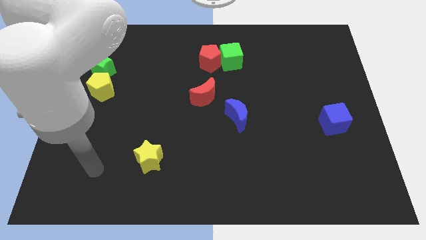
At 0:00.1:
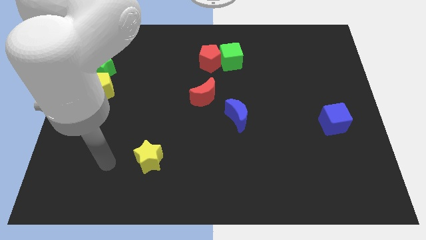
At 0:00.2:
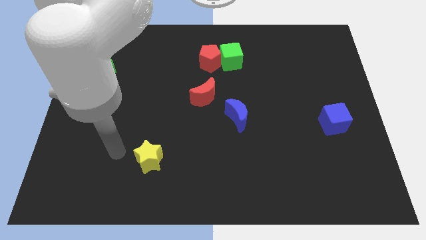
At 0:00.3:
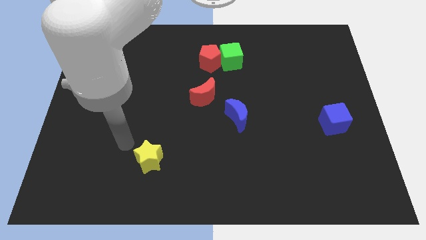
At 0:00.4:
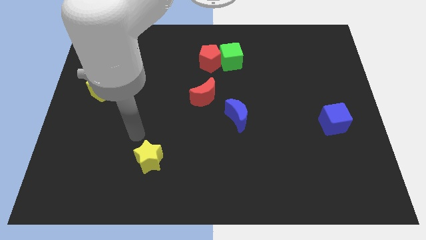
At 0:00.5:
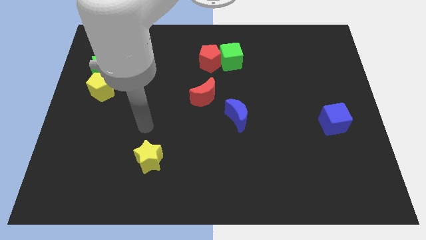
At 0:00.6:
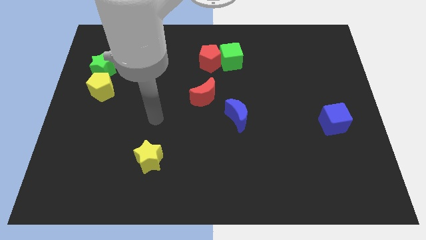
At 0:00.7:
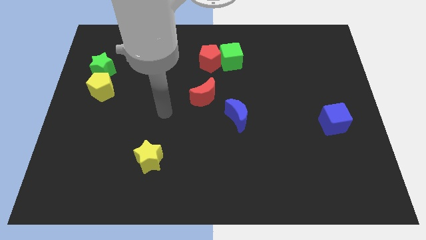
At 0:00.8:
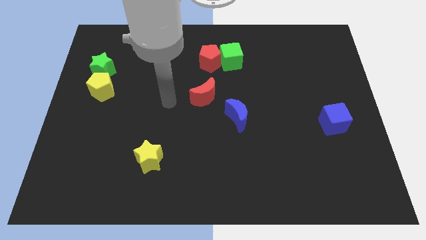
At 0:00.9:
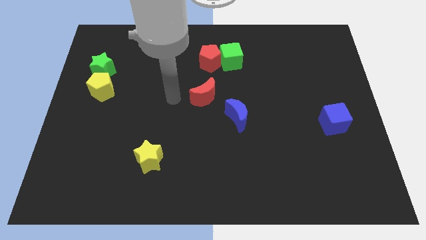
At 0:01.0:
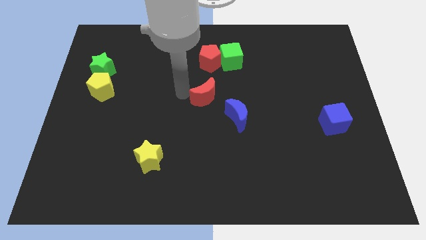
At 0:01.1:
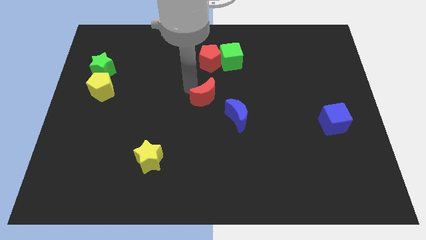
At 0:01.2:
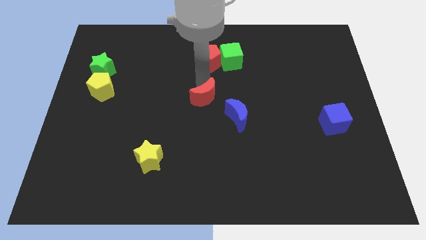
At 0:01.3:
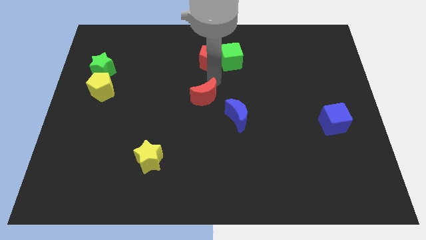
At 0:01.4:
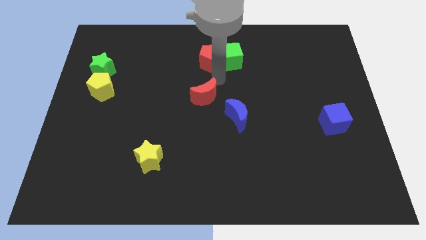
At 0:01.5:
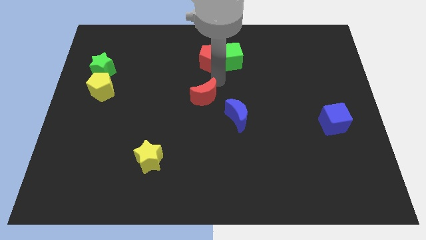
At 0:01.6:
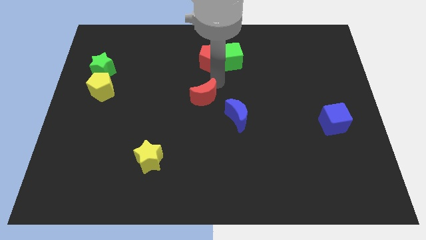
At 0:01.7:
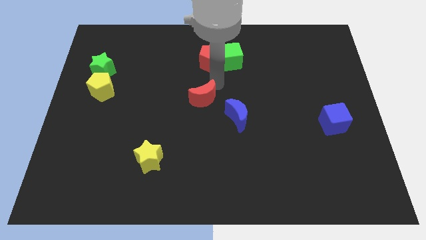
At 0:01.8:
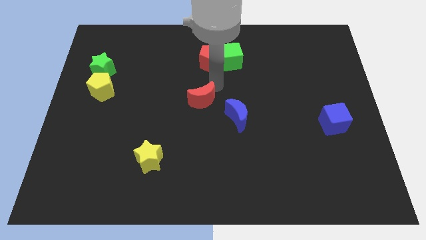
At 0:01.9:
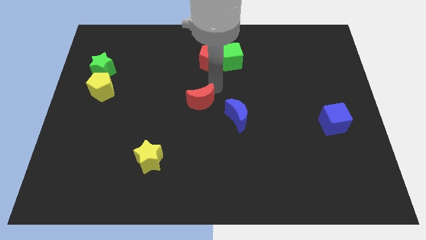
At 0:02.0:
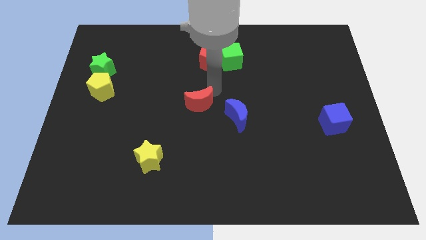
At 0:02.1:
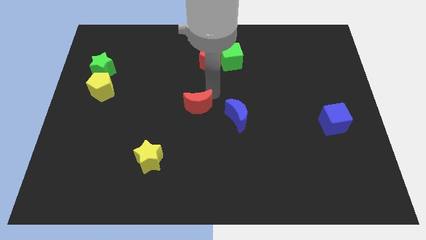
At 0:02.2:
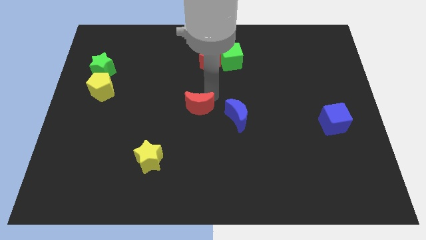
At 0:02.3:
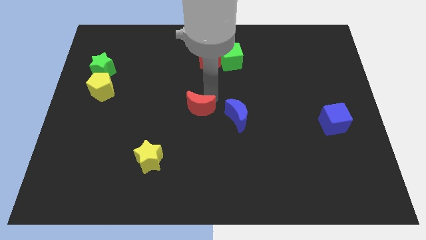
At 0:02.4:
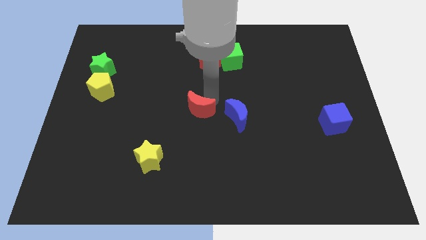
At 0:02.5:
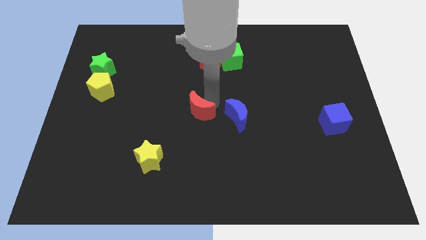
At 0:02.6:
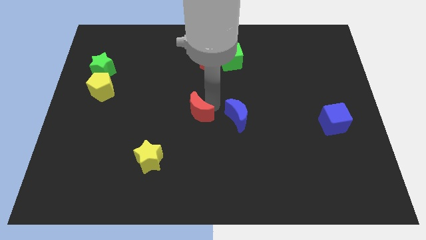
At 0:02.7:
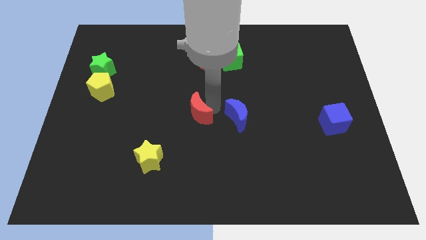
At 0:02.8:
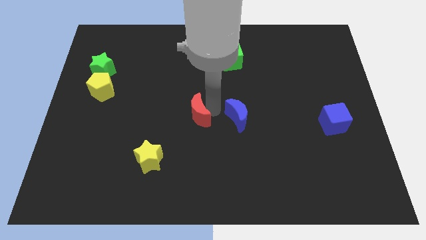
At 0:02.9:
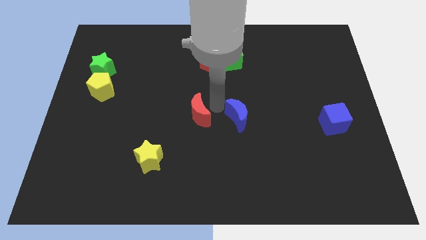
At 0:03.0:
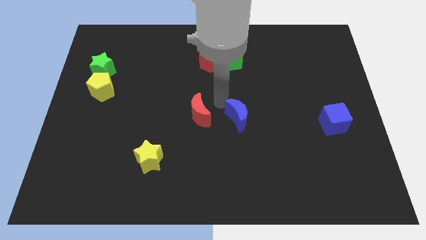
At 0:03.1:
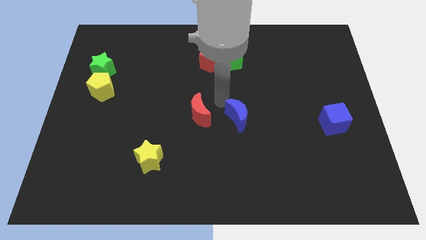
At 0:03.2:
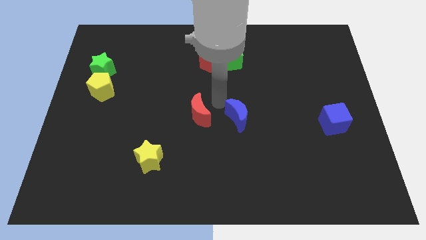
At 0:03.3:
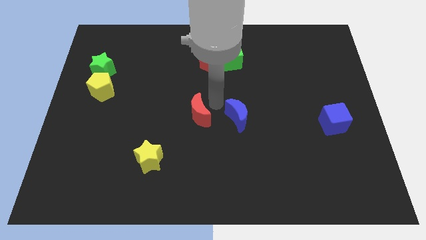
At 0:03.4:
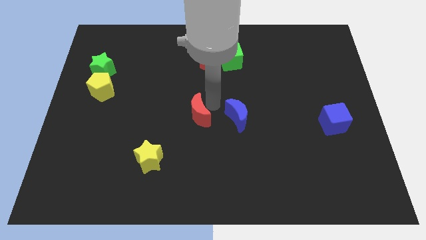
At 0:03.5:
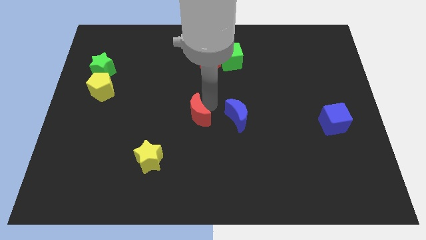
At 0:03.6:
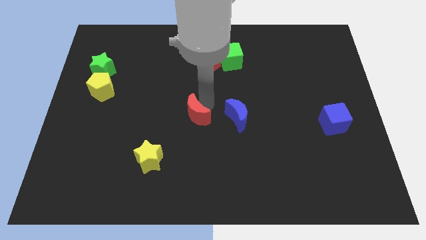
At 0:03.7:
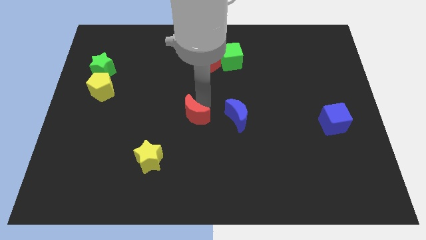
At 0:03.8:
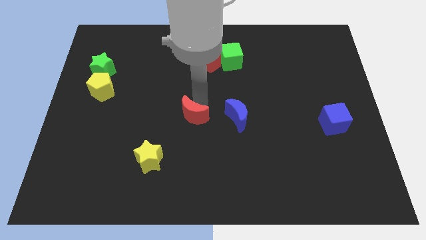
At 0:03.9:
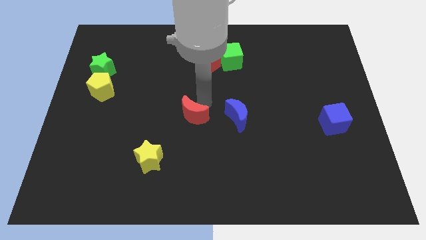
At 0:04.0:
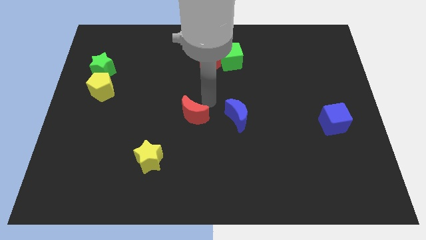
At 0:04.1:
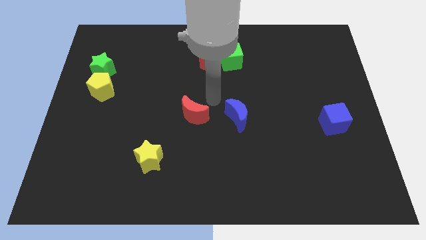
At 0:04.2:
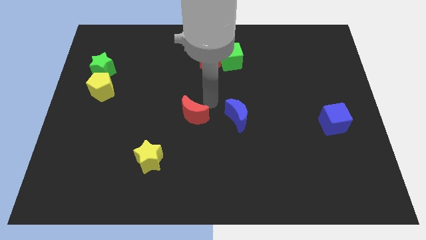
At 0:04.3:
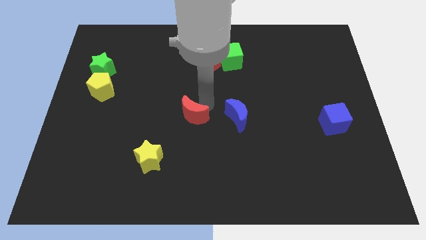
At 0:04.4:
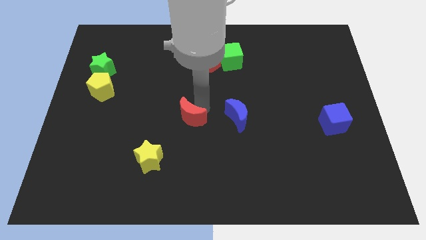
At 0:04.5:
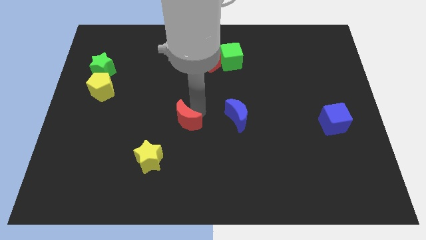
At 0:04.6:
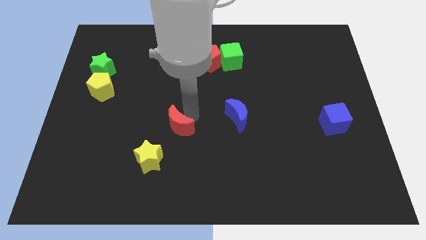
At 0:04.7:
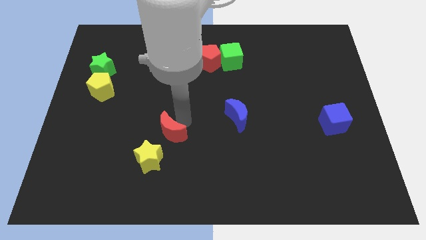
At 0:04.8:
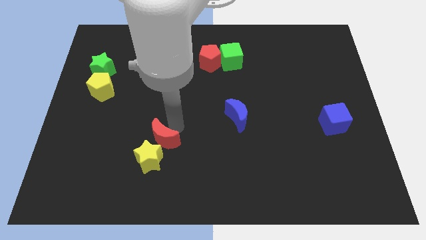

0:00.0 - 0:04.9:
slide the red moon to the yellow star

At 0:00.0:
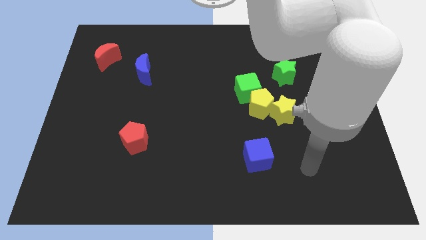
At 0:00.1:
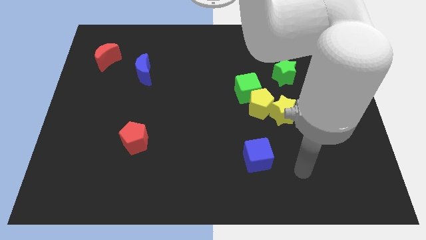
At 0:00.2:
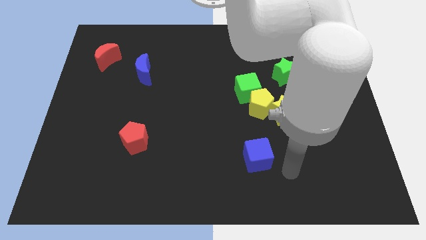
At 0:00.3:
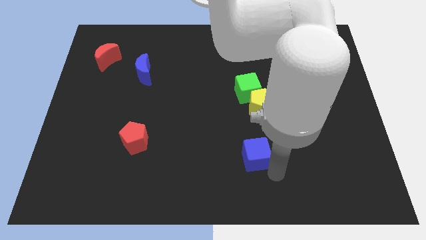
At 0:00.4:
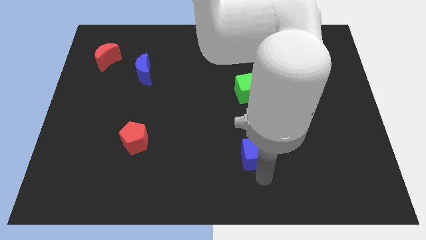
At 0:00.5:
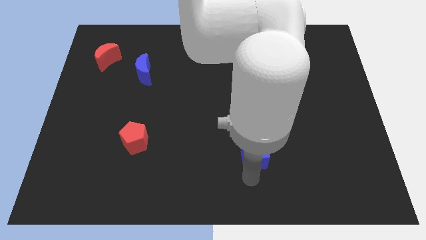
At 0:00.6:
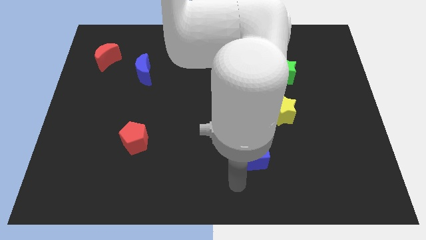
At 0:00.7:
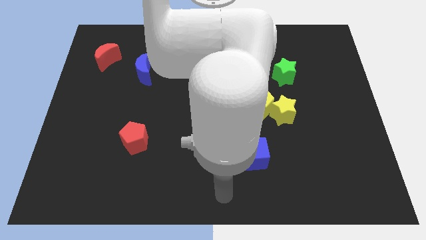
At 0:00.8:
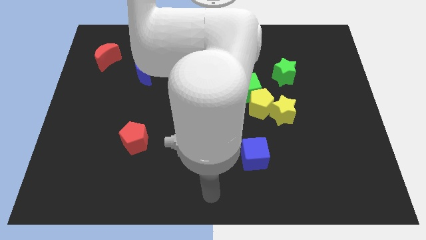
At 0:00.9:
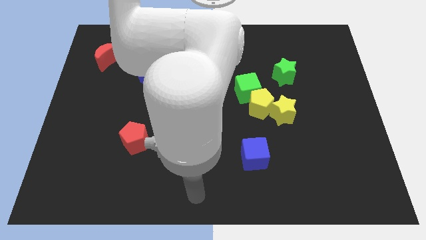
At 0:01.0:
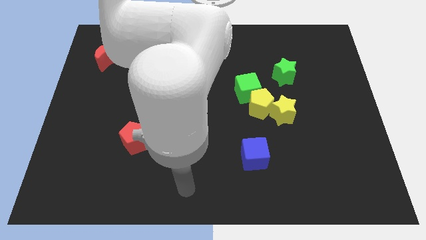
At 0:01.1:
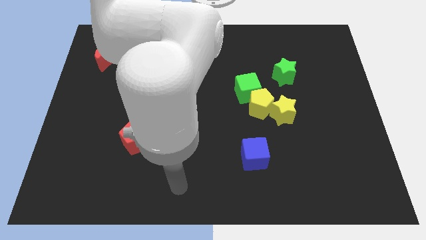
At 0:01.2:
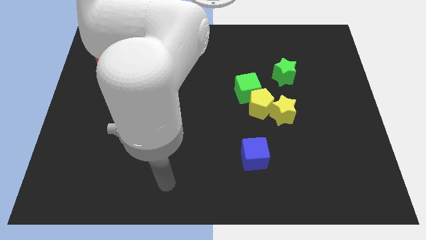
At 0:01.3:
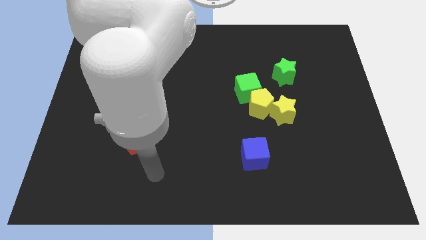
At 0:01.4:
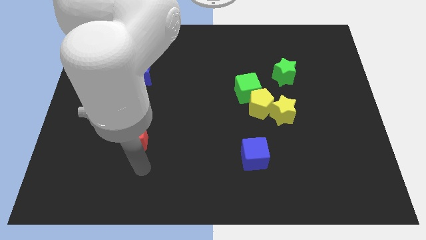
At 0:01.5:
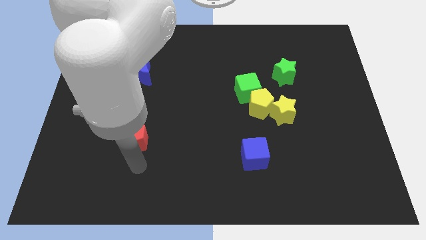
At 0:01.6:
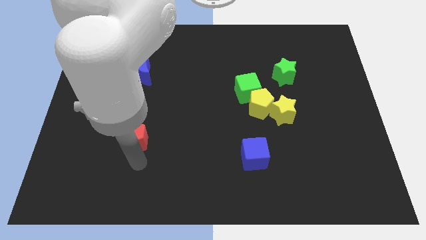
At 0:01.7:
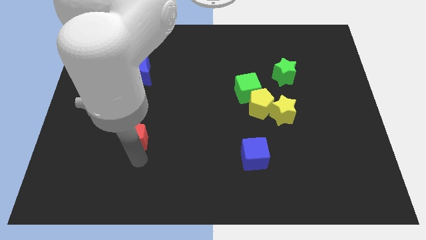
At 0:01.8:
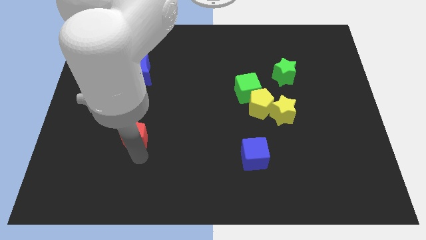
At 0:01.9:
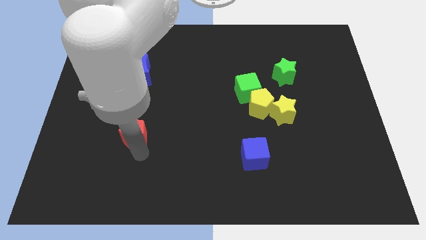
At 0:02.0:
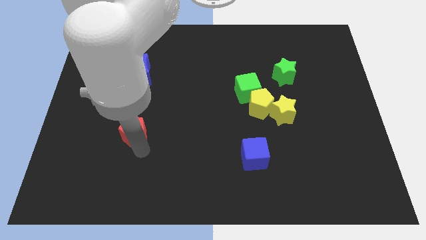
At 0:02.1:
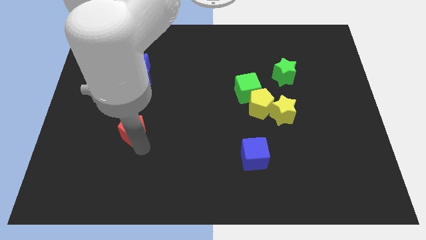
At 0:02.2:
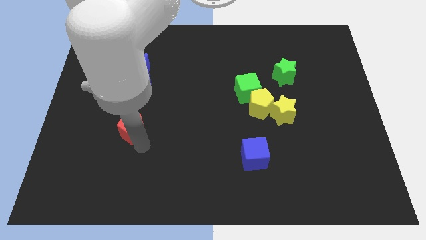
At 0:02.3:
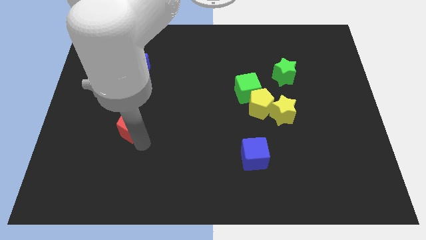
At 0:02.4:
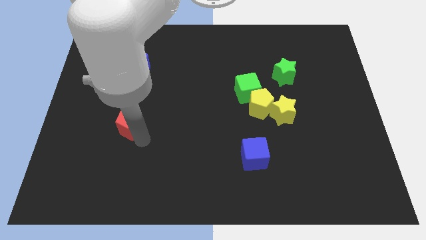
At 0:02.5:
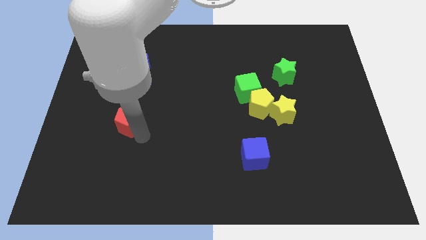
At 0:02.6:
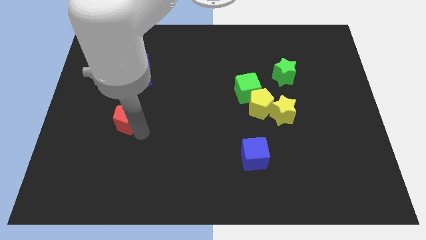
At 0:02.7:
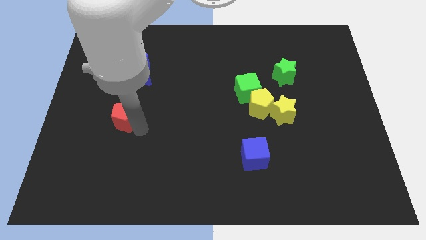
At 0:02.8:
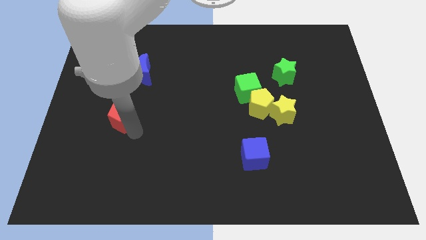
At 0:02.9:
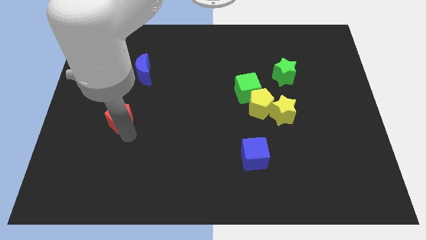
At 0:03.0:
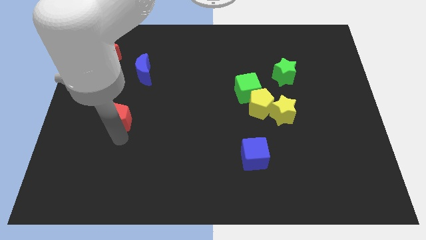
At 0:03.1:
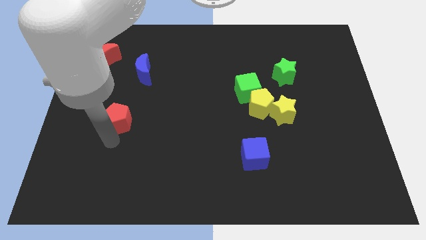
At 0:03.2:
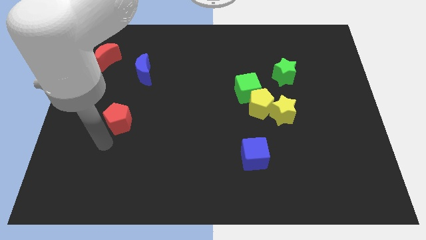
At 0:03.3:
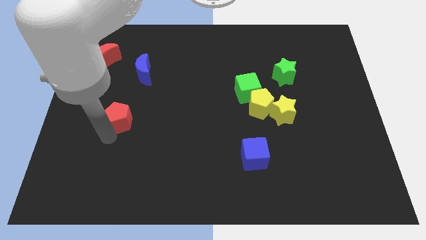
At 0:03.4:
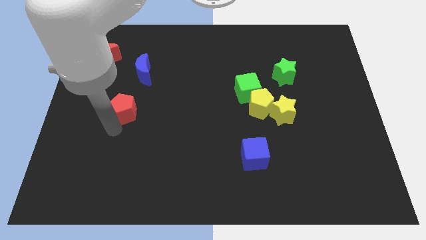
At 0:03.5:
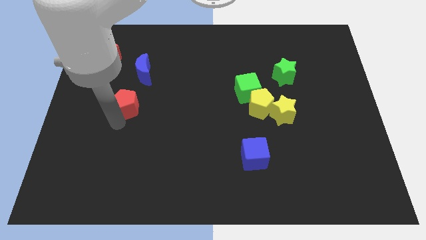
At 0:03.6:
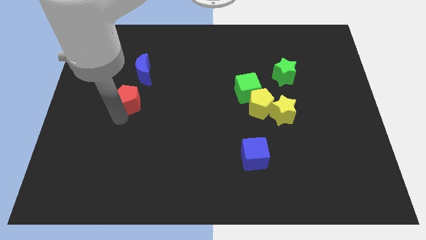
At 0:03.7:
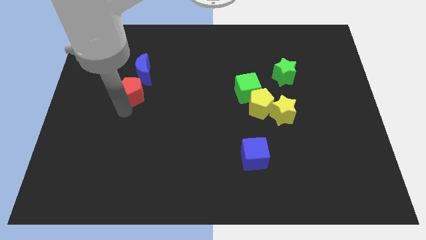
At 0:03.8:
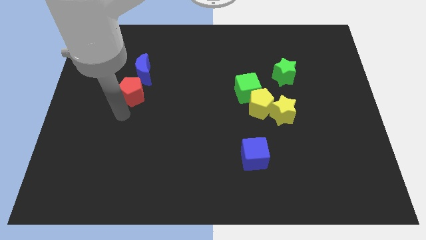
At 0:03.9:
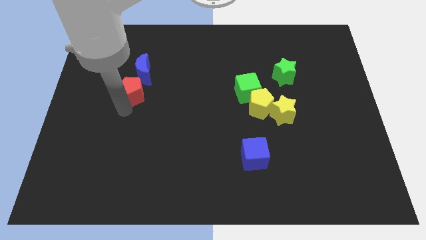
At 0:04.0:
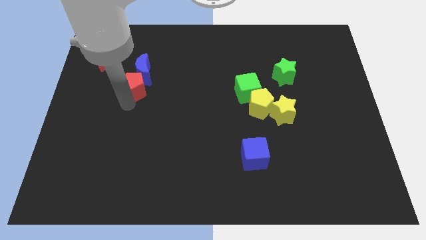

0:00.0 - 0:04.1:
move the red pentagon next to the blue moon
